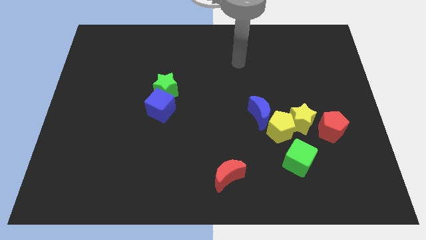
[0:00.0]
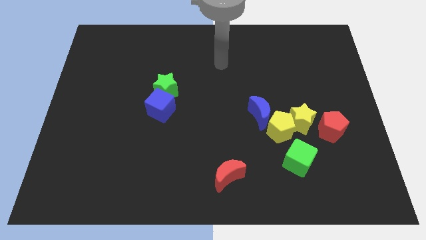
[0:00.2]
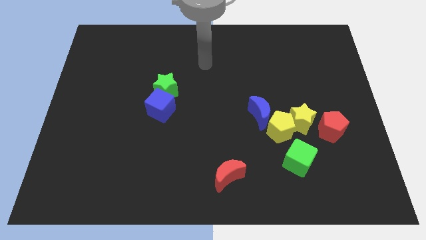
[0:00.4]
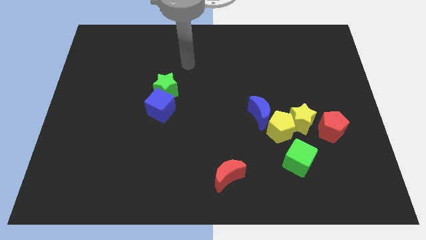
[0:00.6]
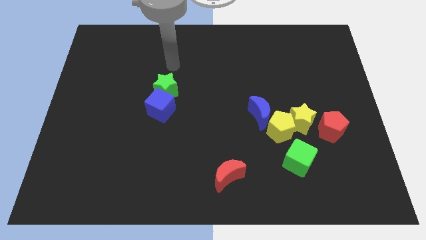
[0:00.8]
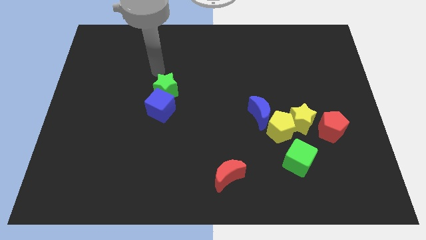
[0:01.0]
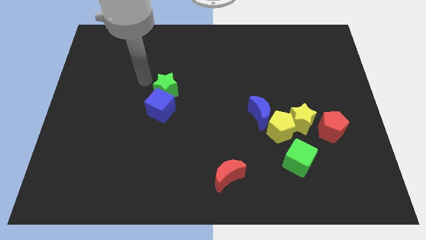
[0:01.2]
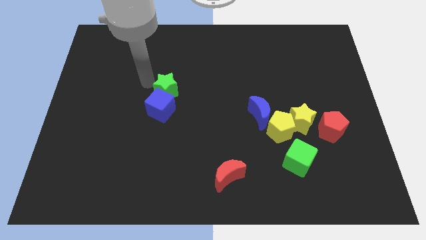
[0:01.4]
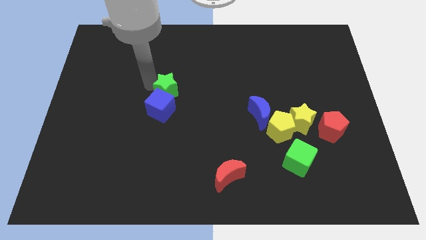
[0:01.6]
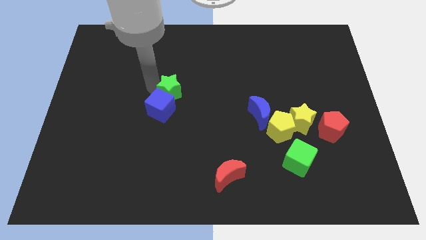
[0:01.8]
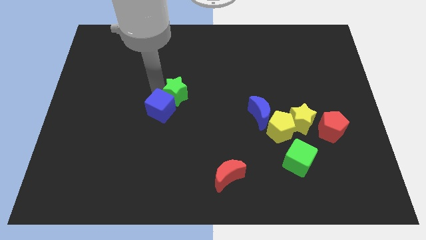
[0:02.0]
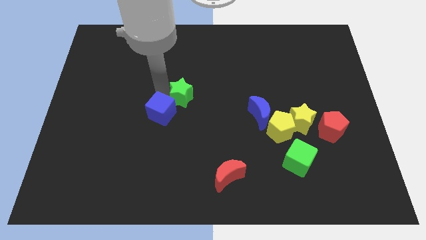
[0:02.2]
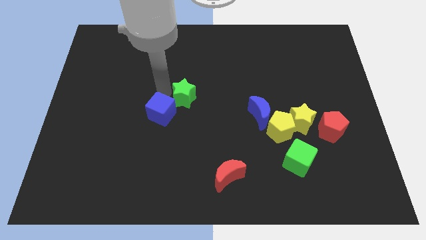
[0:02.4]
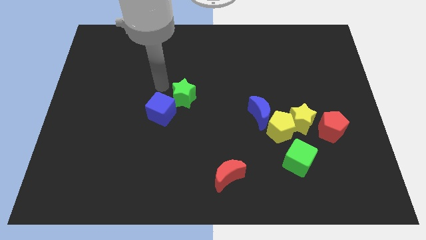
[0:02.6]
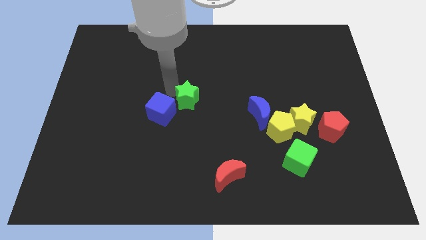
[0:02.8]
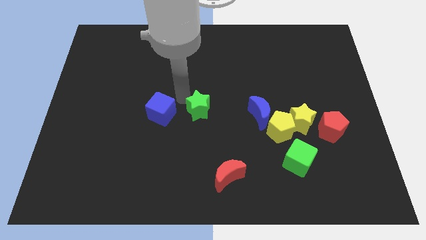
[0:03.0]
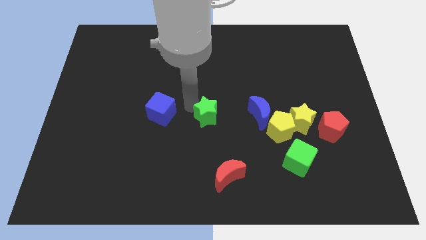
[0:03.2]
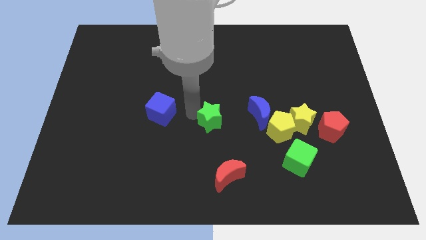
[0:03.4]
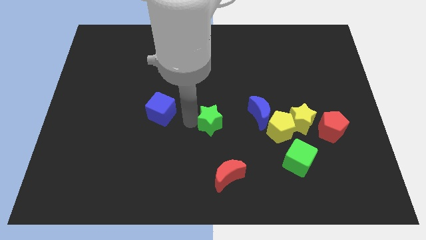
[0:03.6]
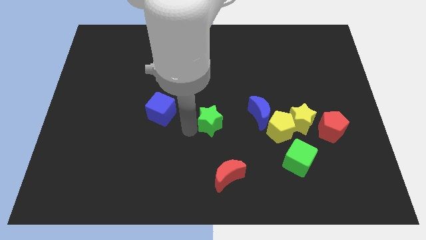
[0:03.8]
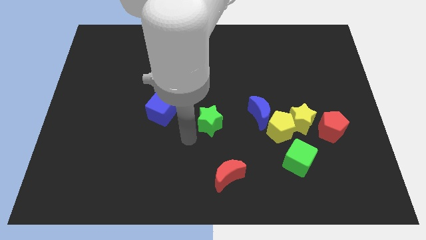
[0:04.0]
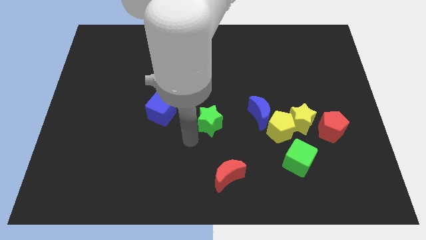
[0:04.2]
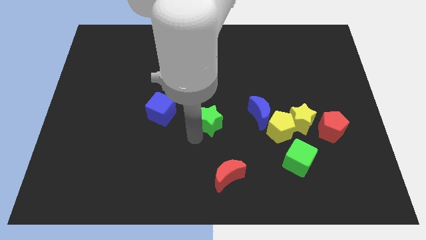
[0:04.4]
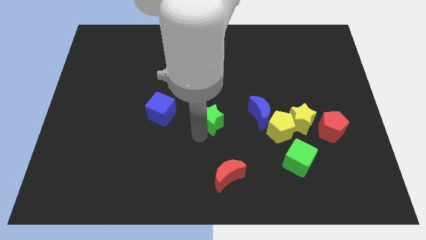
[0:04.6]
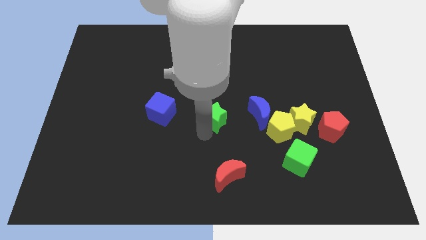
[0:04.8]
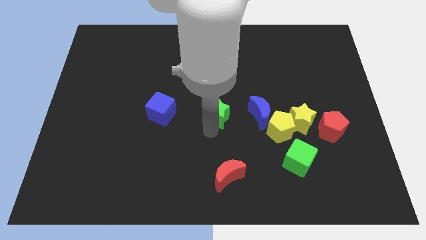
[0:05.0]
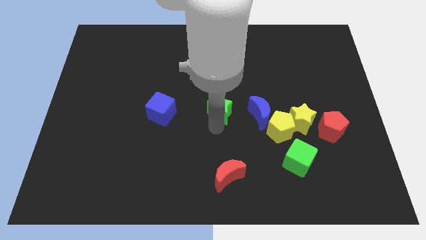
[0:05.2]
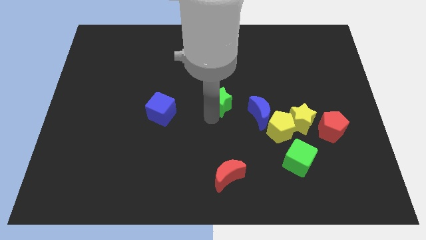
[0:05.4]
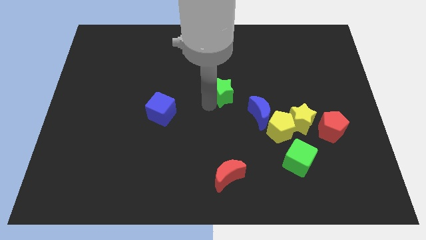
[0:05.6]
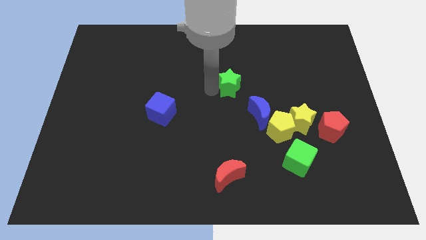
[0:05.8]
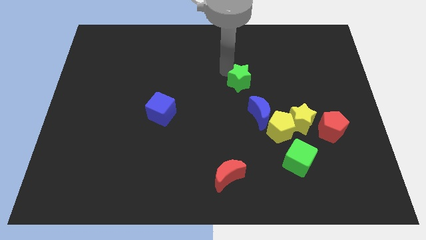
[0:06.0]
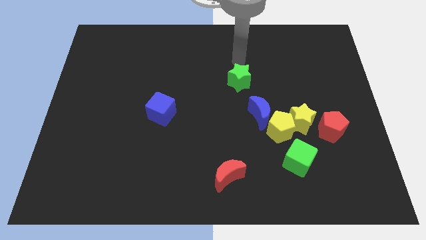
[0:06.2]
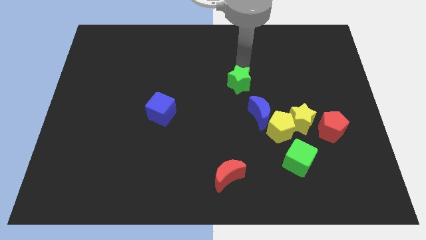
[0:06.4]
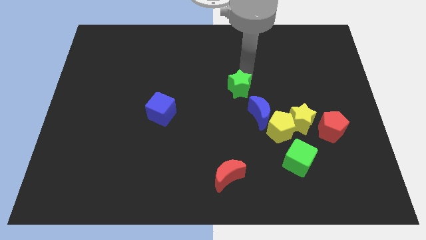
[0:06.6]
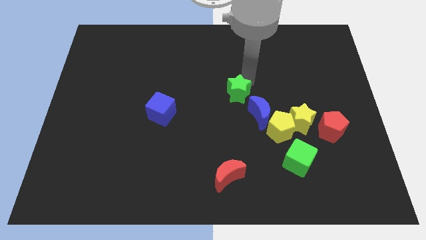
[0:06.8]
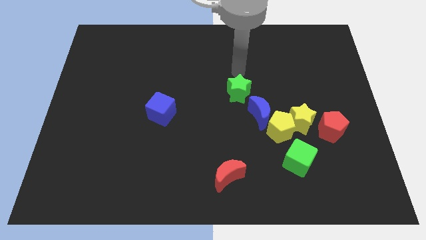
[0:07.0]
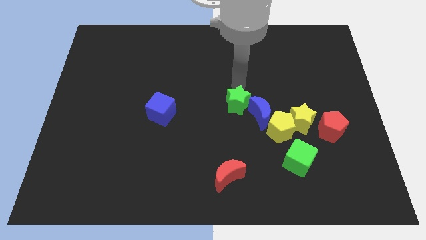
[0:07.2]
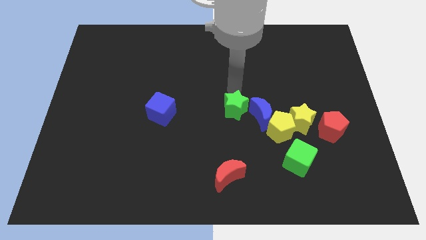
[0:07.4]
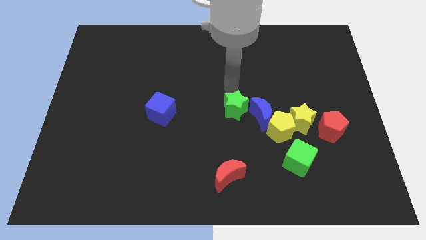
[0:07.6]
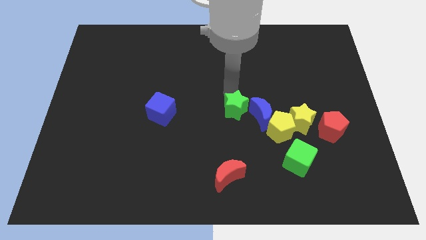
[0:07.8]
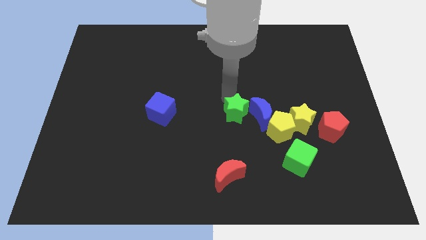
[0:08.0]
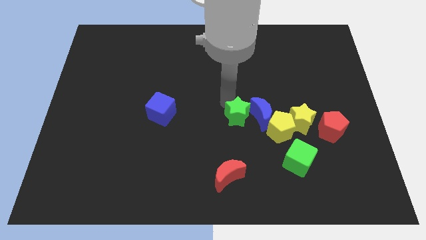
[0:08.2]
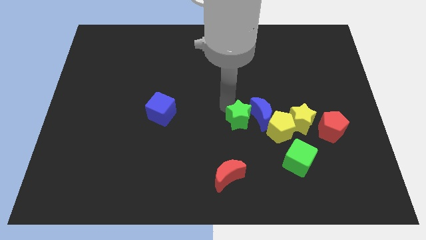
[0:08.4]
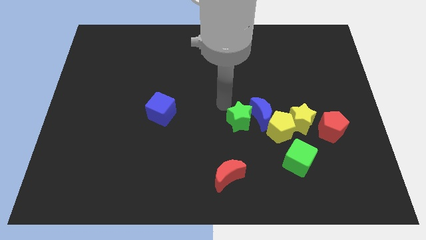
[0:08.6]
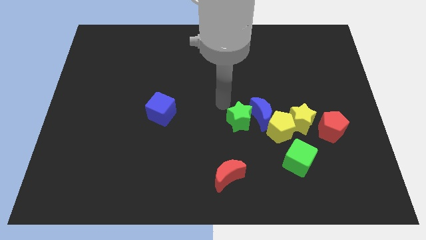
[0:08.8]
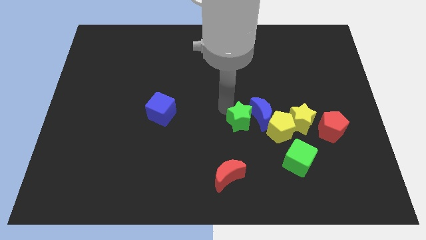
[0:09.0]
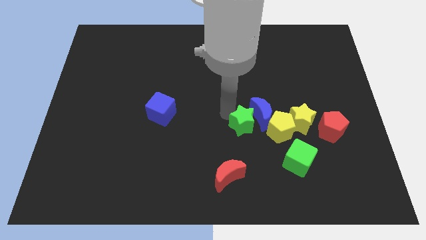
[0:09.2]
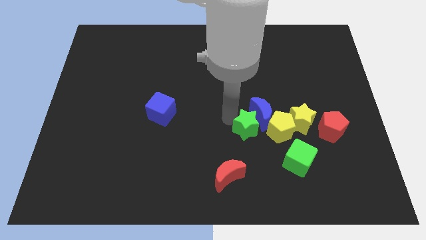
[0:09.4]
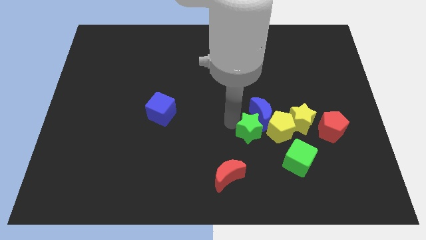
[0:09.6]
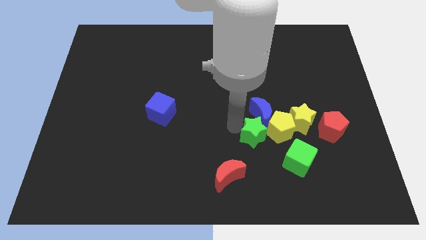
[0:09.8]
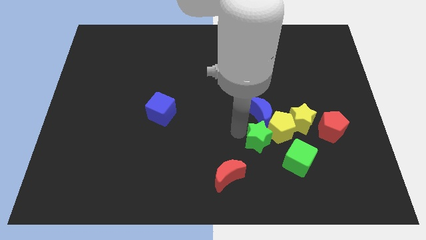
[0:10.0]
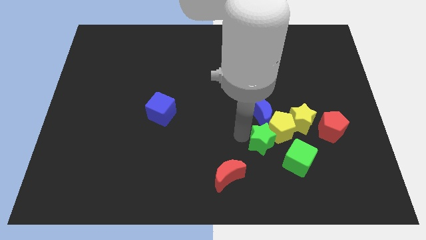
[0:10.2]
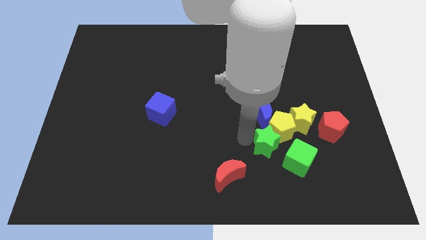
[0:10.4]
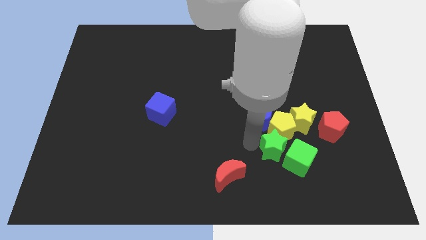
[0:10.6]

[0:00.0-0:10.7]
put the green star next to the green cube

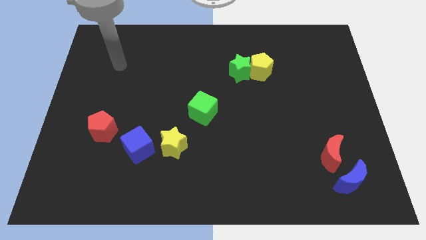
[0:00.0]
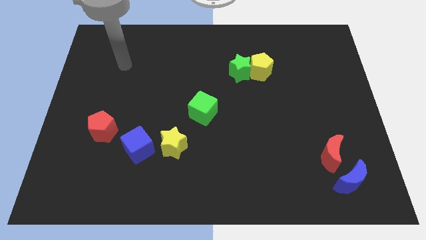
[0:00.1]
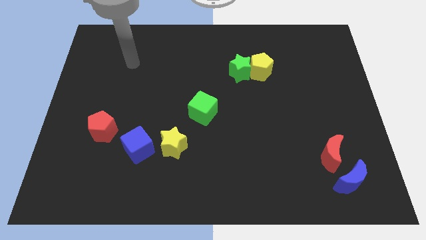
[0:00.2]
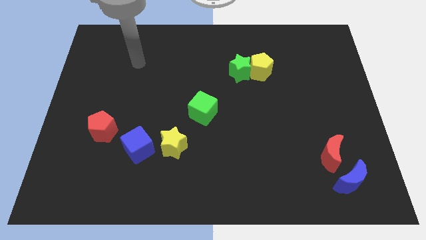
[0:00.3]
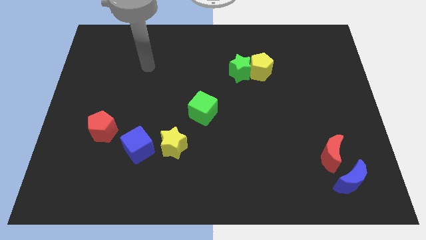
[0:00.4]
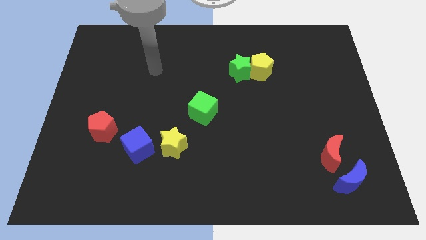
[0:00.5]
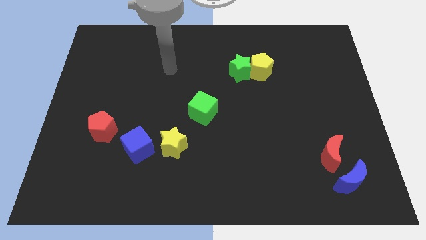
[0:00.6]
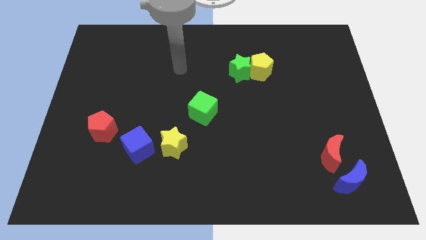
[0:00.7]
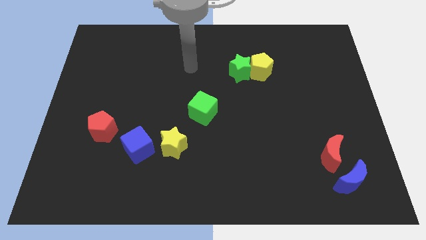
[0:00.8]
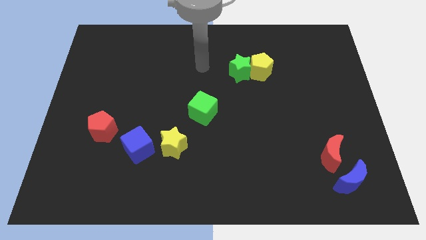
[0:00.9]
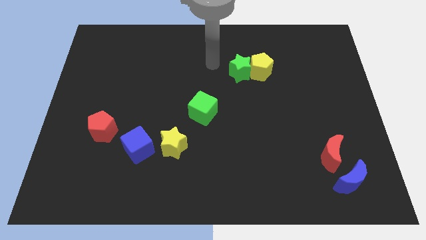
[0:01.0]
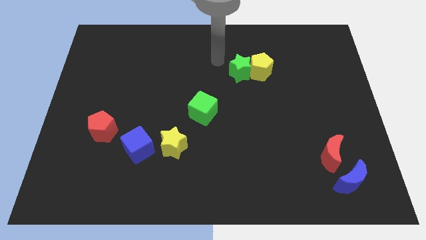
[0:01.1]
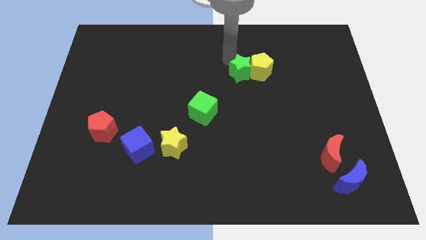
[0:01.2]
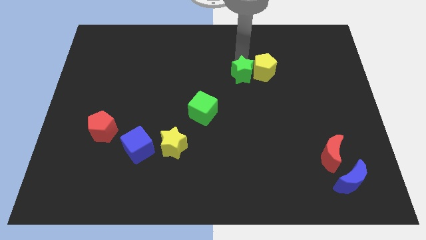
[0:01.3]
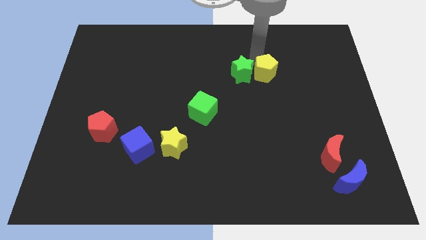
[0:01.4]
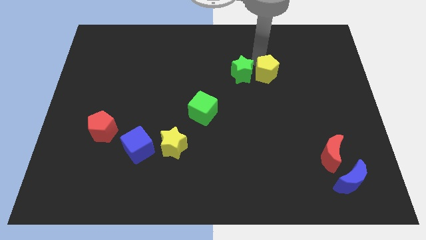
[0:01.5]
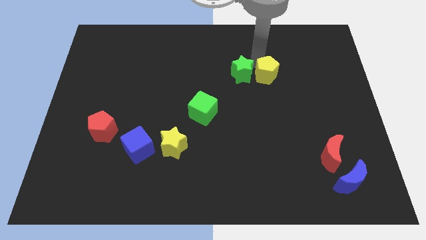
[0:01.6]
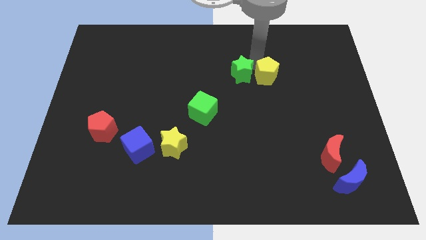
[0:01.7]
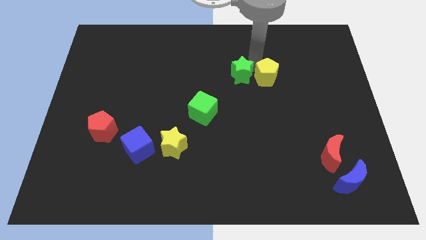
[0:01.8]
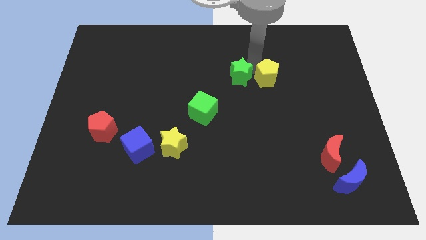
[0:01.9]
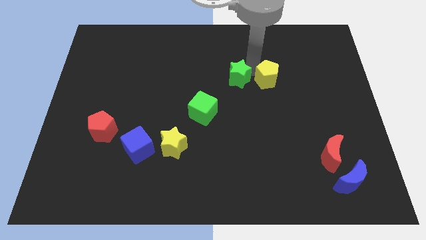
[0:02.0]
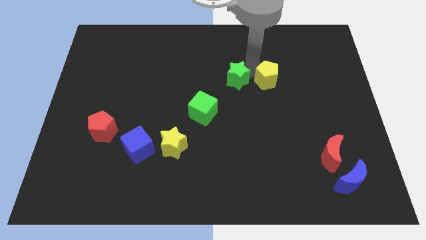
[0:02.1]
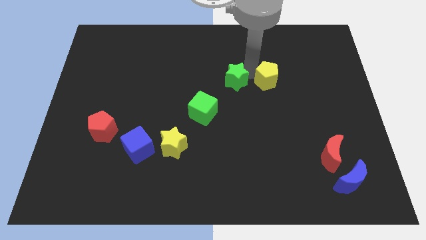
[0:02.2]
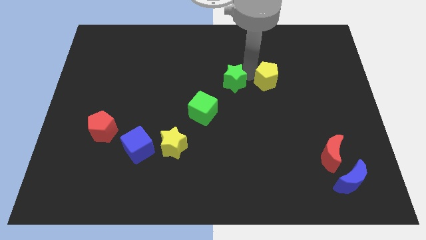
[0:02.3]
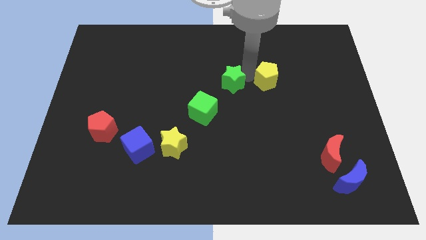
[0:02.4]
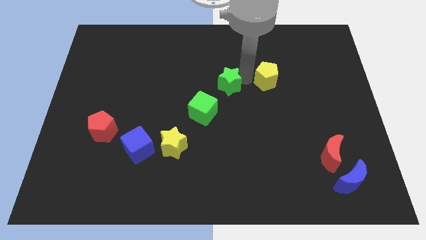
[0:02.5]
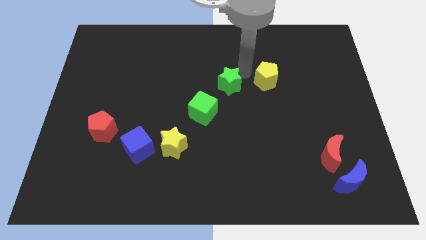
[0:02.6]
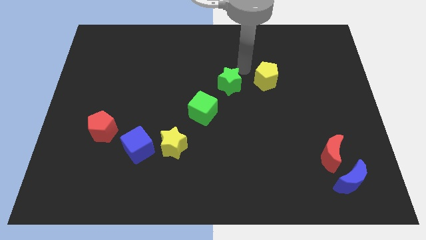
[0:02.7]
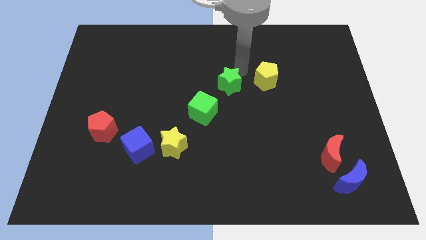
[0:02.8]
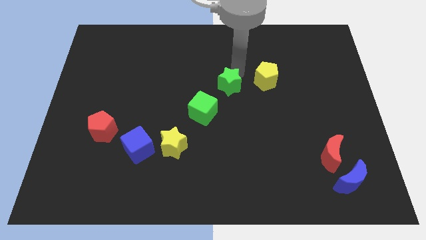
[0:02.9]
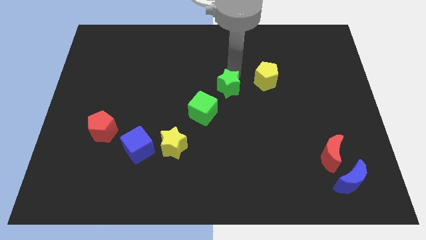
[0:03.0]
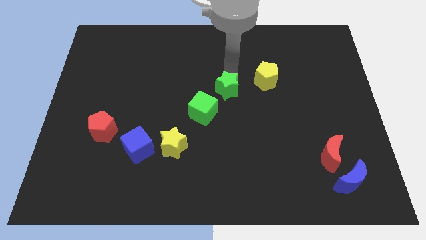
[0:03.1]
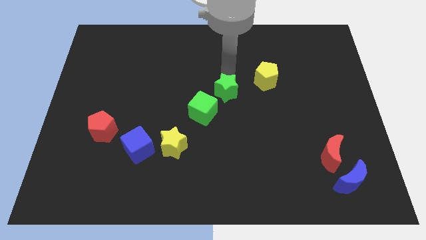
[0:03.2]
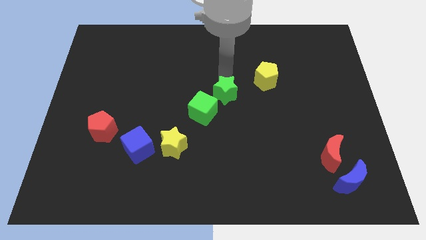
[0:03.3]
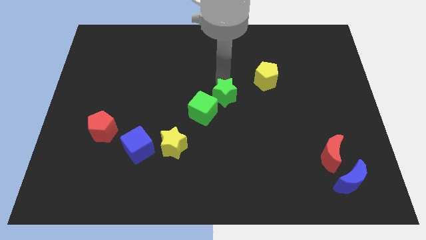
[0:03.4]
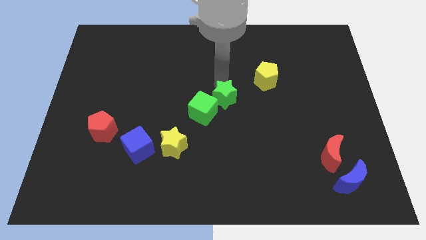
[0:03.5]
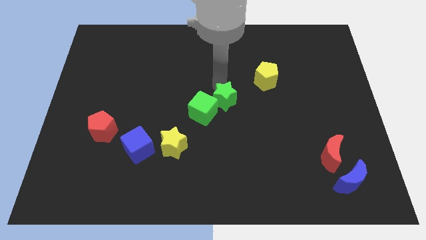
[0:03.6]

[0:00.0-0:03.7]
slide the green star next to the green cube
